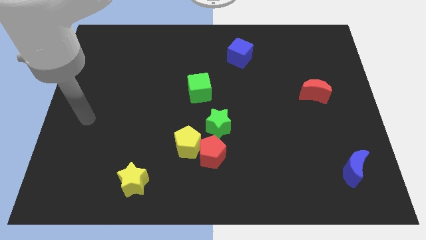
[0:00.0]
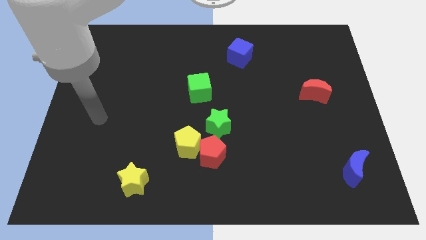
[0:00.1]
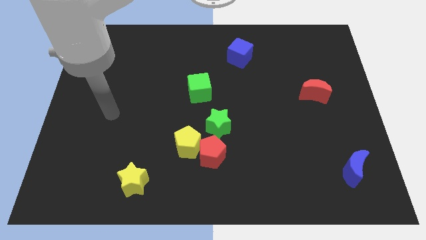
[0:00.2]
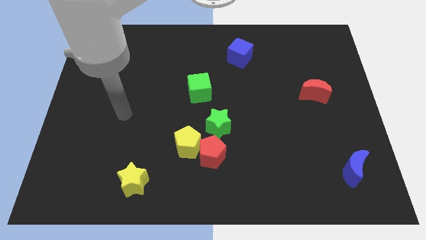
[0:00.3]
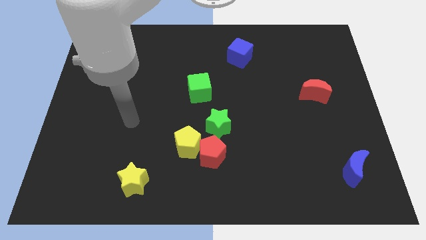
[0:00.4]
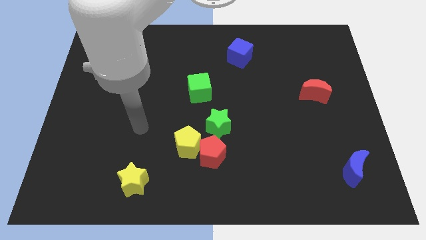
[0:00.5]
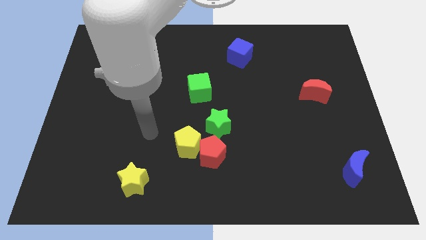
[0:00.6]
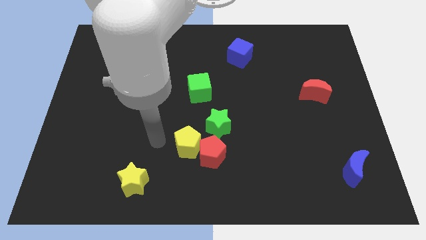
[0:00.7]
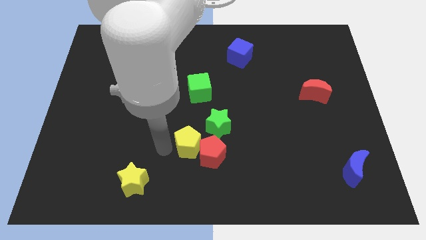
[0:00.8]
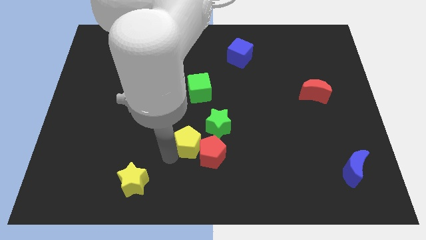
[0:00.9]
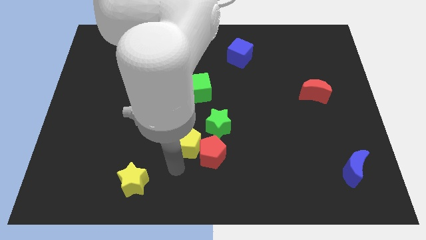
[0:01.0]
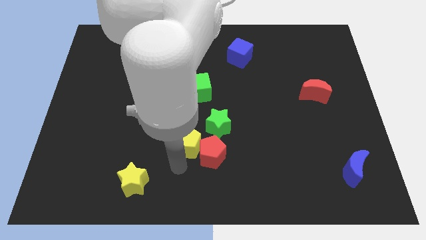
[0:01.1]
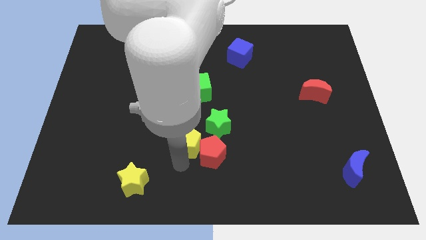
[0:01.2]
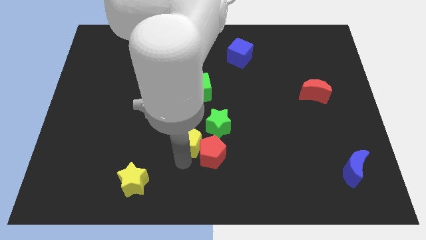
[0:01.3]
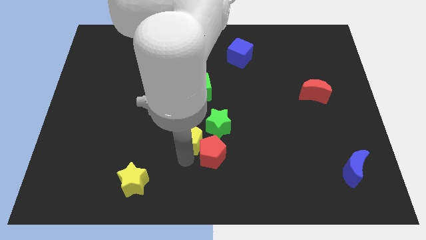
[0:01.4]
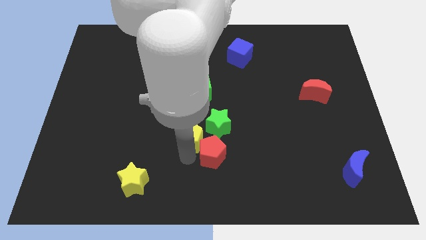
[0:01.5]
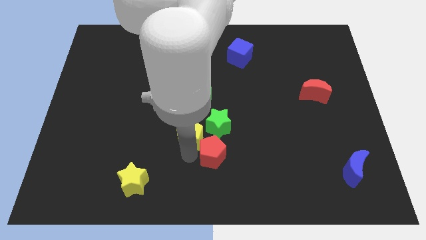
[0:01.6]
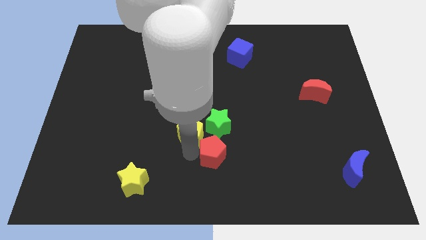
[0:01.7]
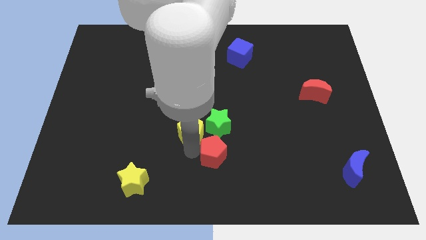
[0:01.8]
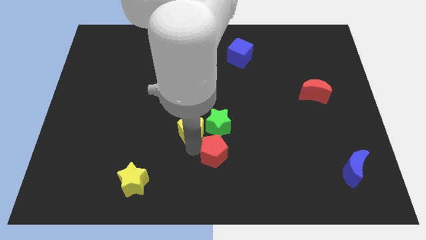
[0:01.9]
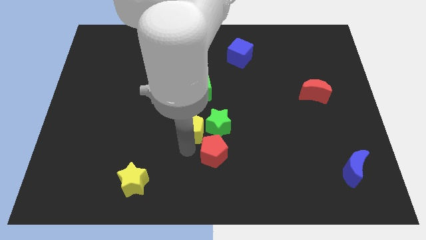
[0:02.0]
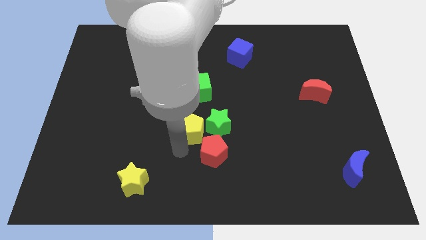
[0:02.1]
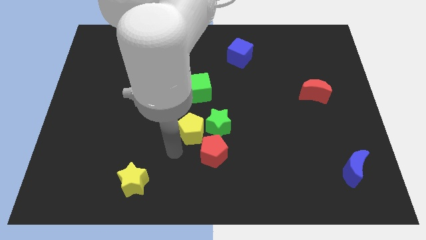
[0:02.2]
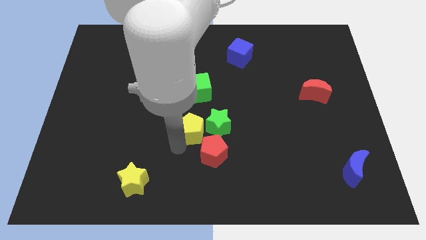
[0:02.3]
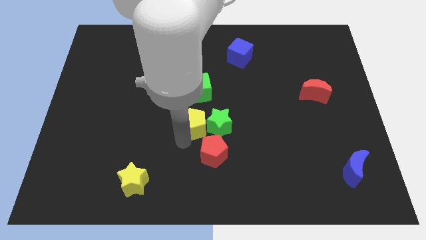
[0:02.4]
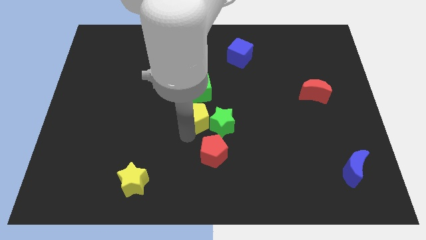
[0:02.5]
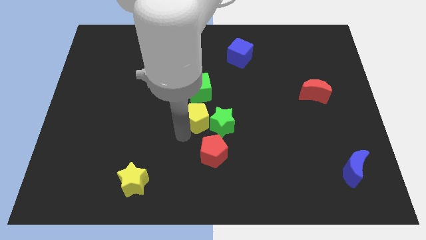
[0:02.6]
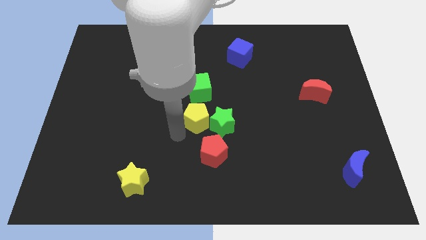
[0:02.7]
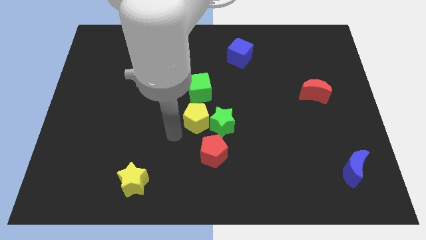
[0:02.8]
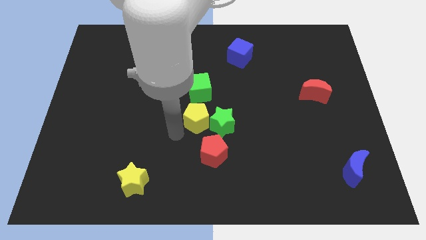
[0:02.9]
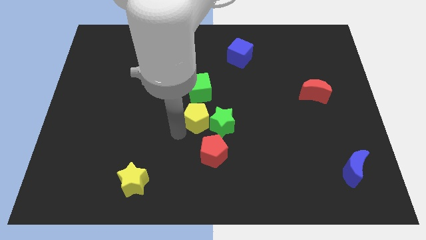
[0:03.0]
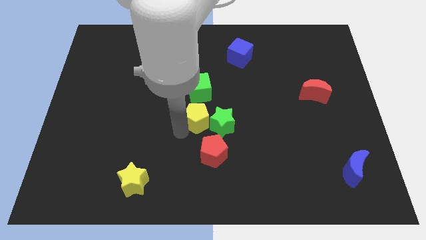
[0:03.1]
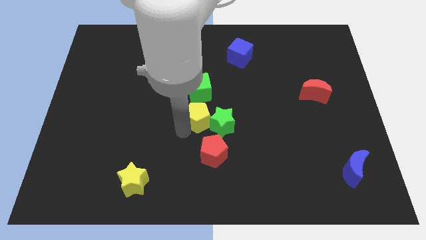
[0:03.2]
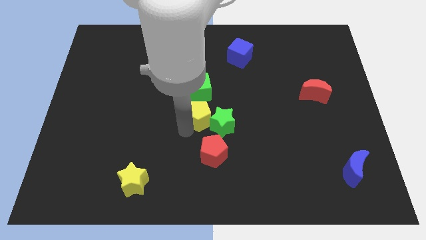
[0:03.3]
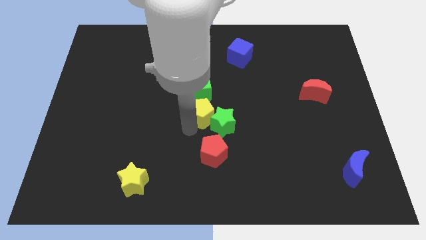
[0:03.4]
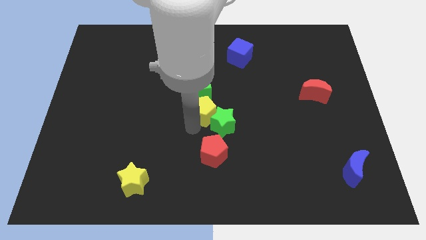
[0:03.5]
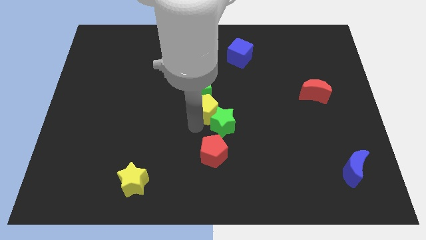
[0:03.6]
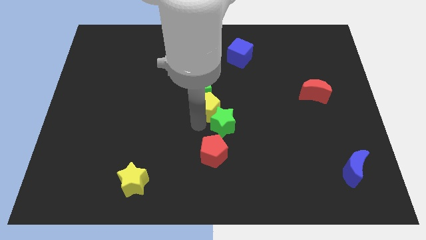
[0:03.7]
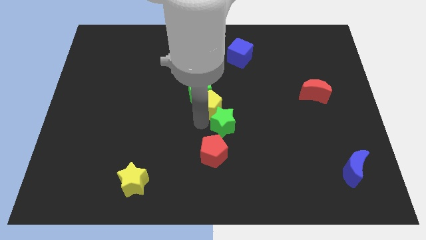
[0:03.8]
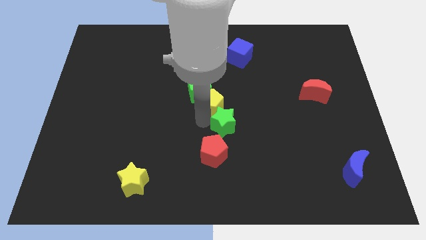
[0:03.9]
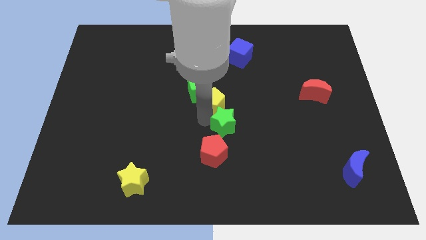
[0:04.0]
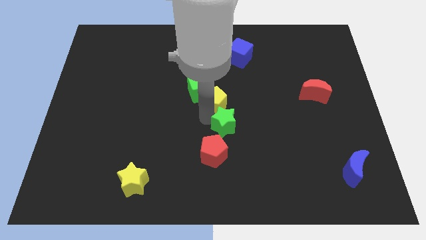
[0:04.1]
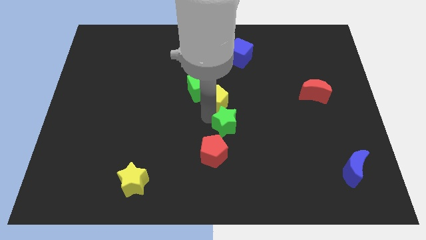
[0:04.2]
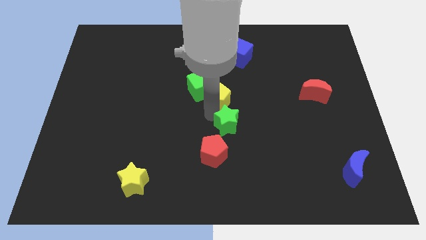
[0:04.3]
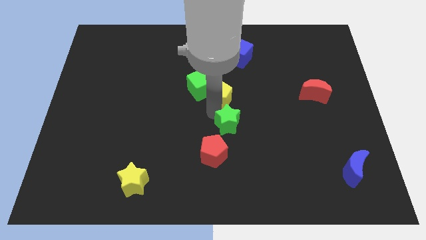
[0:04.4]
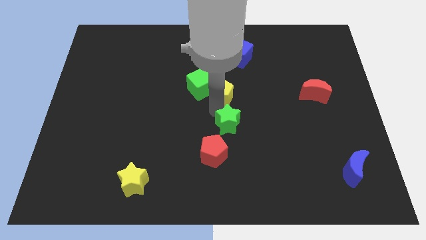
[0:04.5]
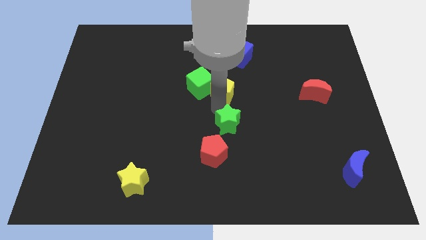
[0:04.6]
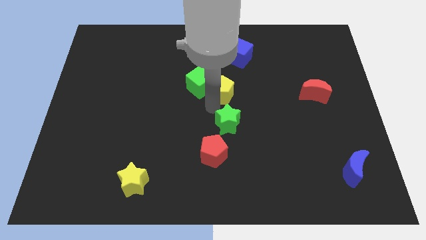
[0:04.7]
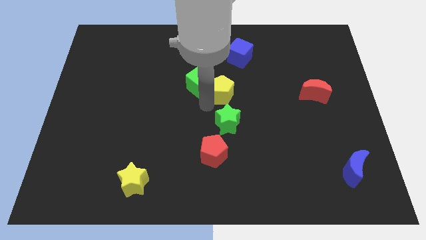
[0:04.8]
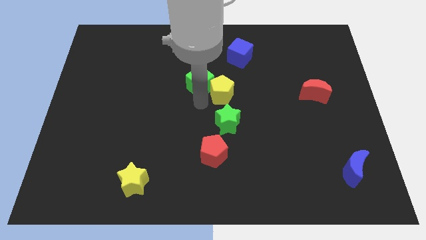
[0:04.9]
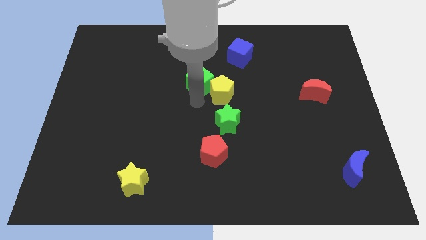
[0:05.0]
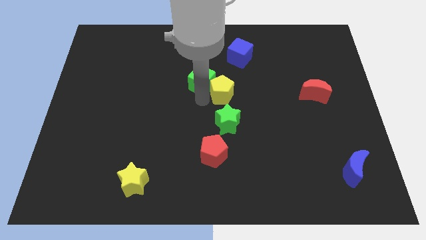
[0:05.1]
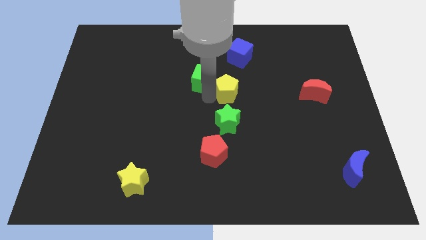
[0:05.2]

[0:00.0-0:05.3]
put the yellow pentagon to the bottom side of the blue cube

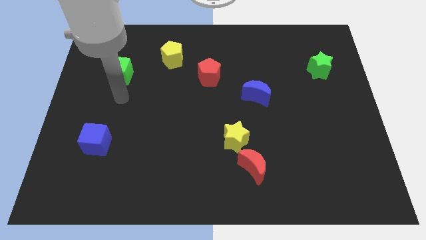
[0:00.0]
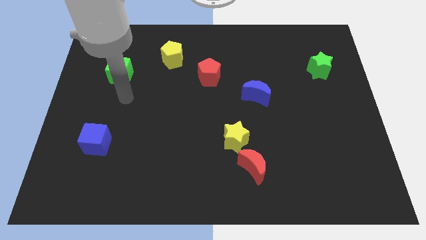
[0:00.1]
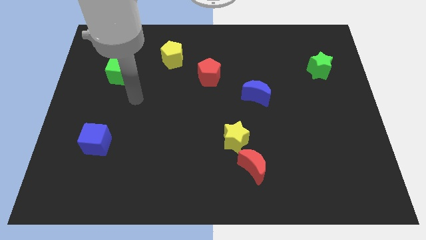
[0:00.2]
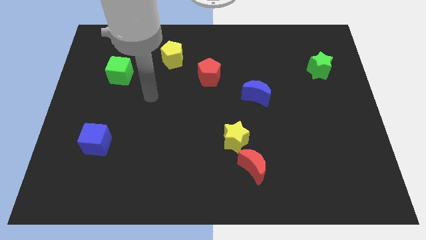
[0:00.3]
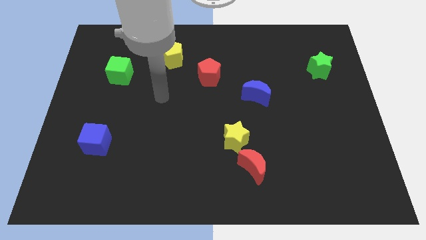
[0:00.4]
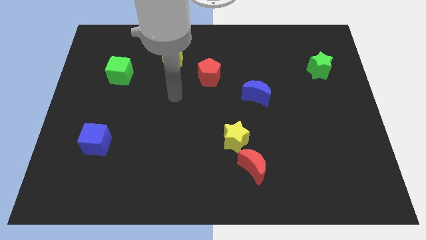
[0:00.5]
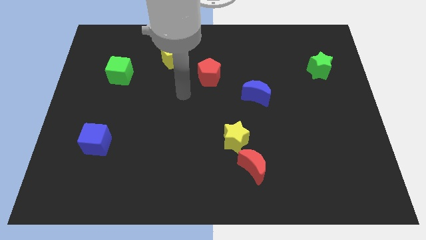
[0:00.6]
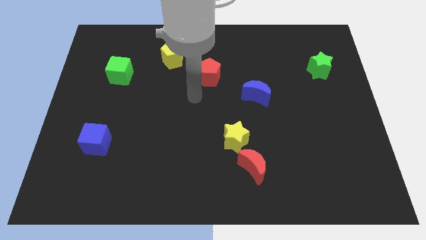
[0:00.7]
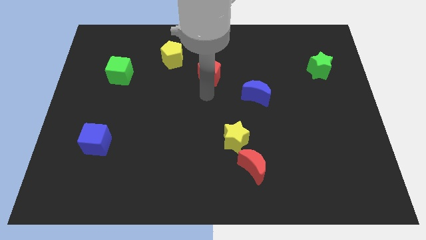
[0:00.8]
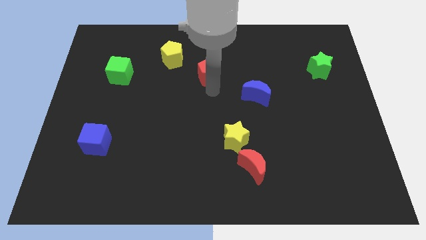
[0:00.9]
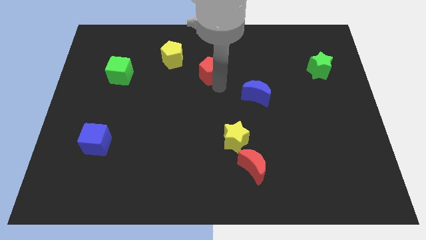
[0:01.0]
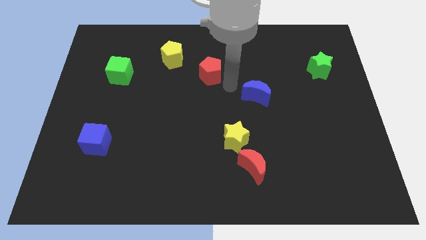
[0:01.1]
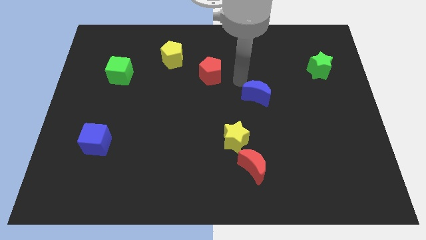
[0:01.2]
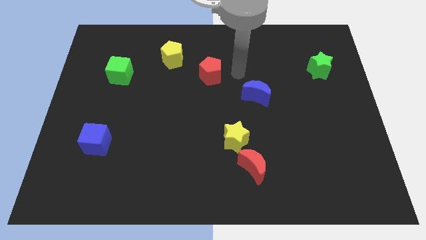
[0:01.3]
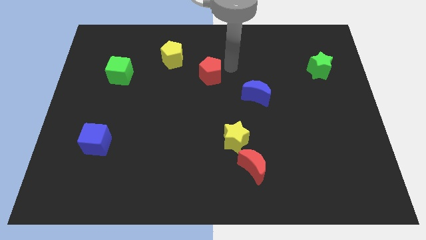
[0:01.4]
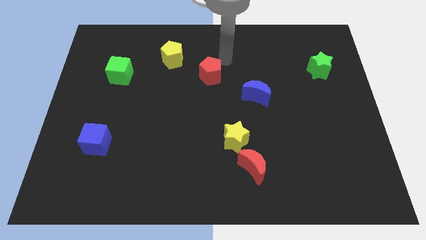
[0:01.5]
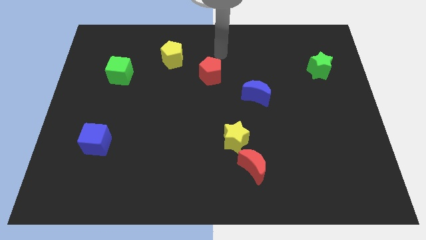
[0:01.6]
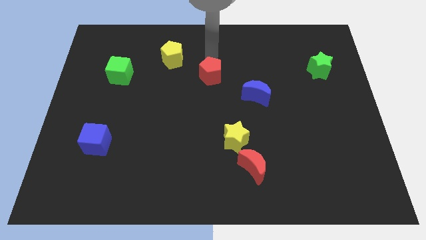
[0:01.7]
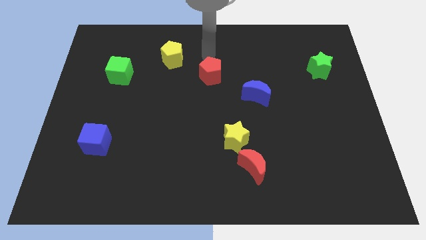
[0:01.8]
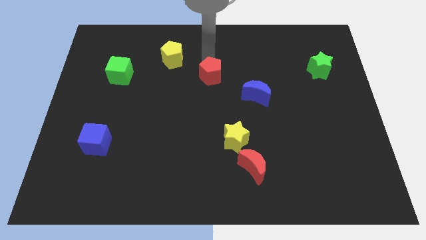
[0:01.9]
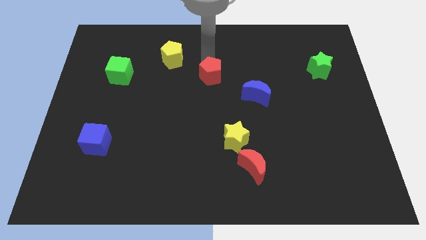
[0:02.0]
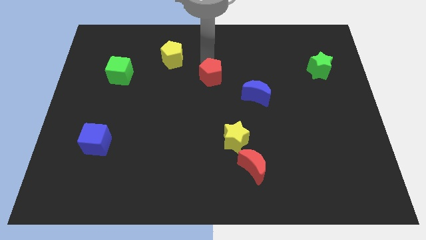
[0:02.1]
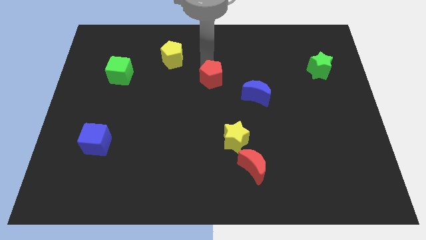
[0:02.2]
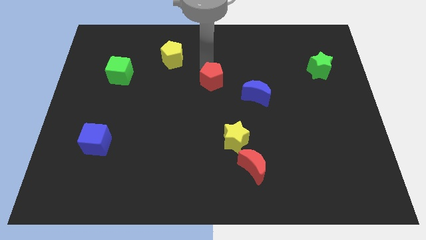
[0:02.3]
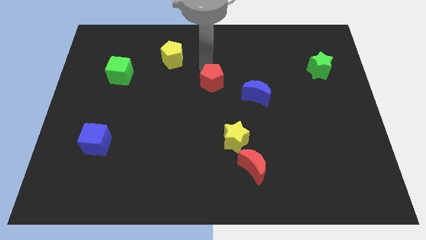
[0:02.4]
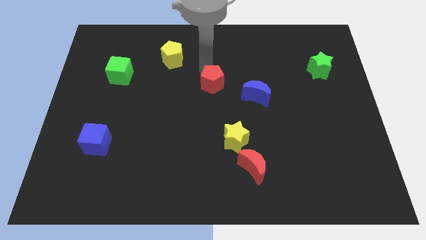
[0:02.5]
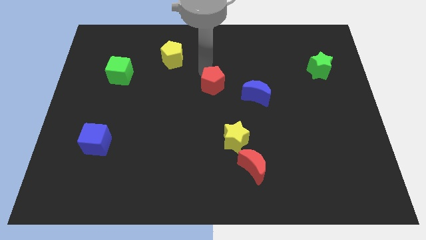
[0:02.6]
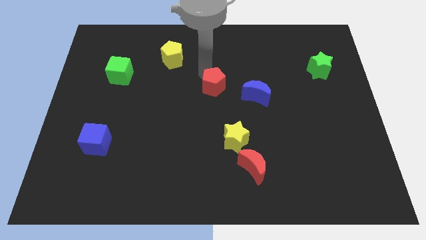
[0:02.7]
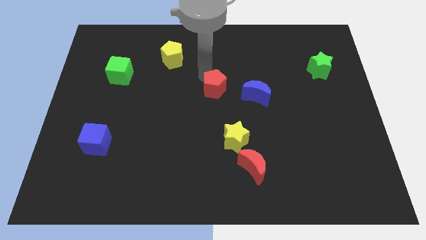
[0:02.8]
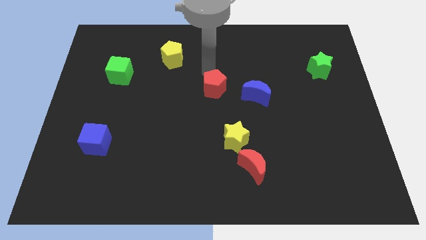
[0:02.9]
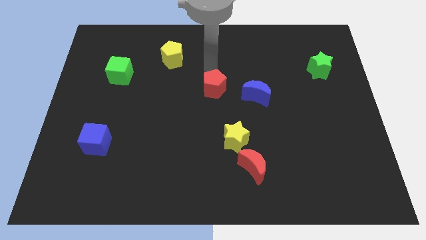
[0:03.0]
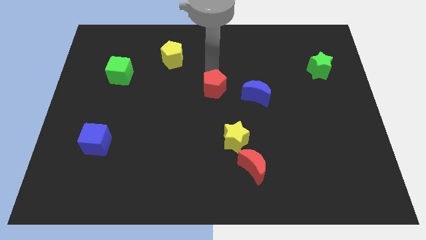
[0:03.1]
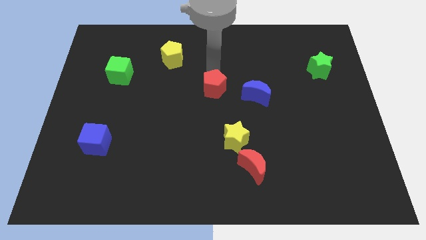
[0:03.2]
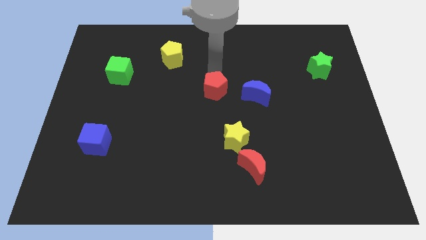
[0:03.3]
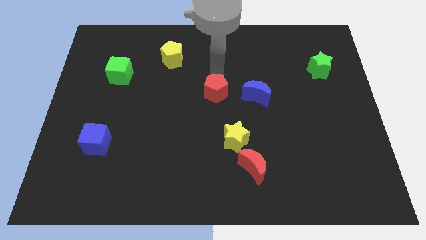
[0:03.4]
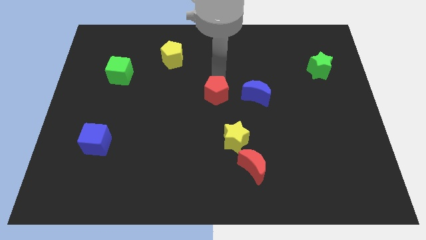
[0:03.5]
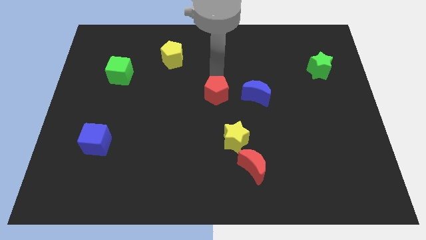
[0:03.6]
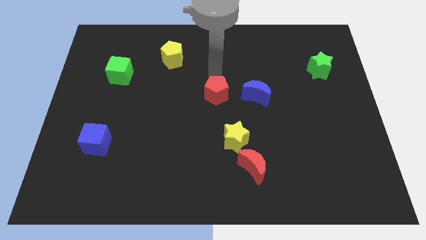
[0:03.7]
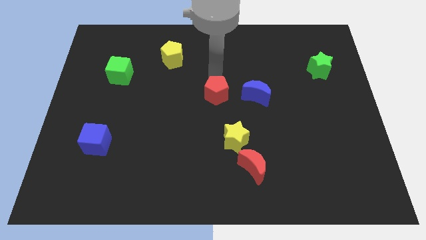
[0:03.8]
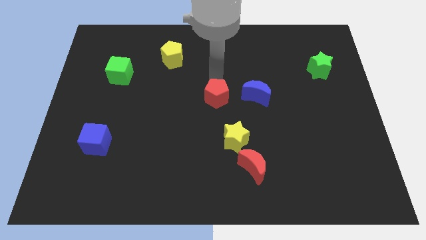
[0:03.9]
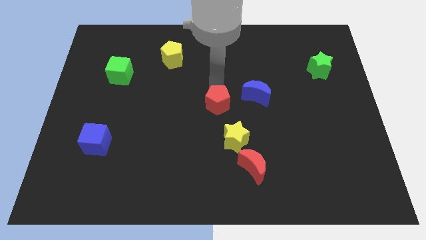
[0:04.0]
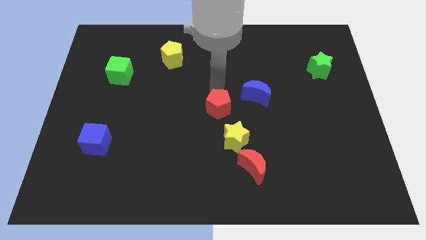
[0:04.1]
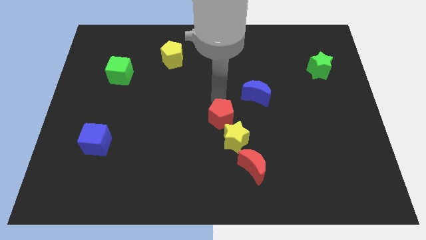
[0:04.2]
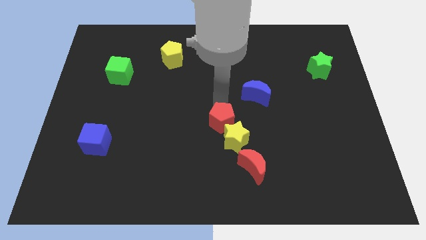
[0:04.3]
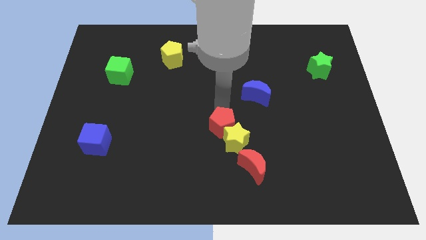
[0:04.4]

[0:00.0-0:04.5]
move the red pentagon to the top left side of the red moon
